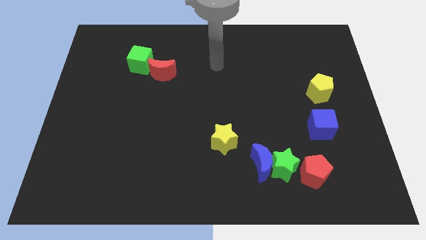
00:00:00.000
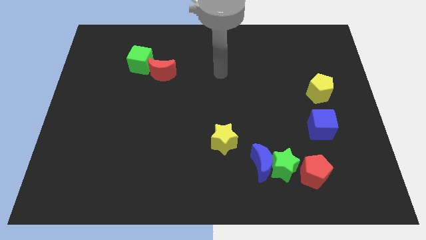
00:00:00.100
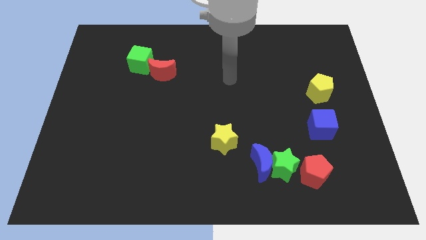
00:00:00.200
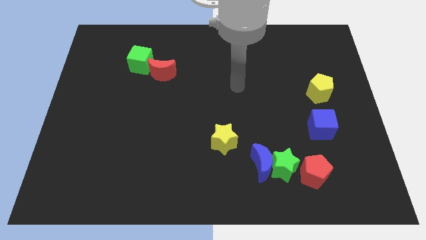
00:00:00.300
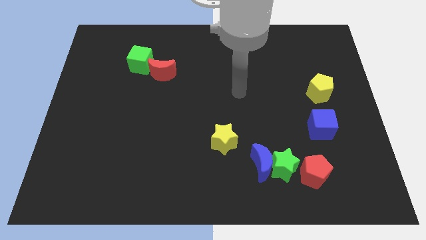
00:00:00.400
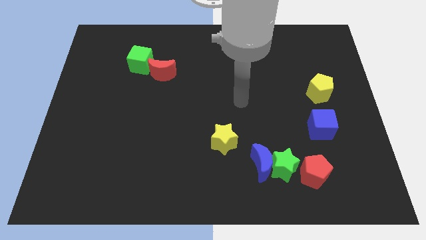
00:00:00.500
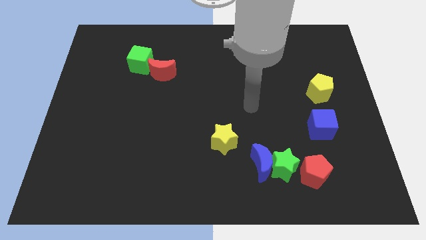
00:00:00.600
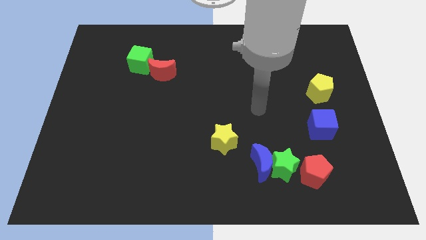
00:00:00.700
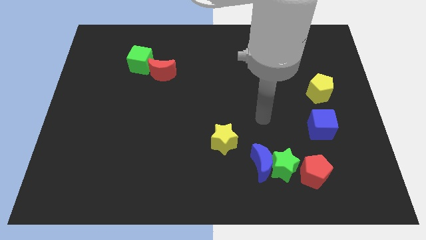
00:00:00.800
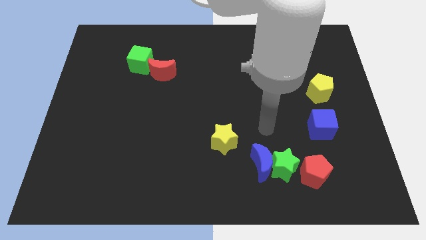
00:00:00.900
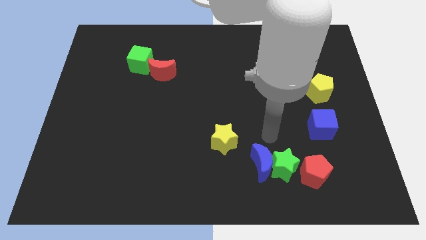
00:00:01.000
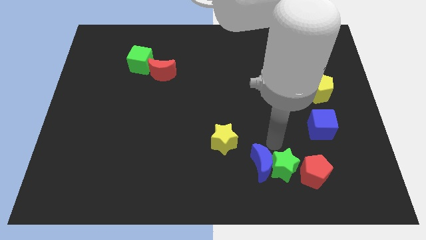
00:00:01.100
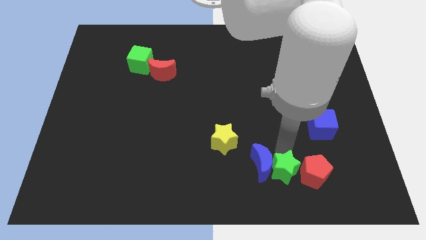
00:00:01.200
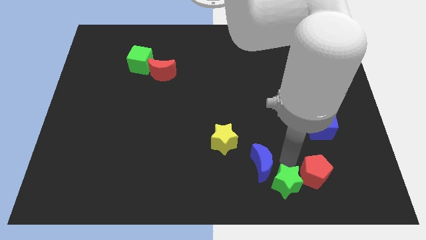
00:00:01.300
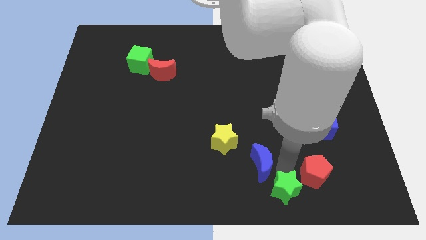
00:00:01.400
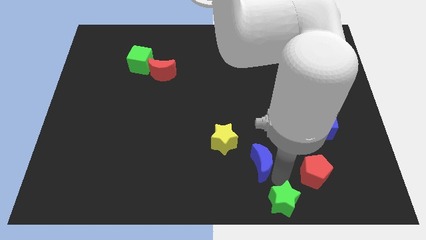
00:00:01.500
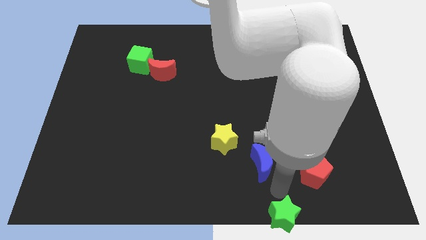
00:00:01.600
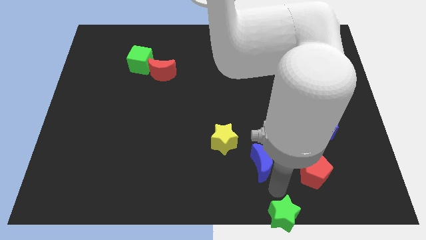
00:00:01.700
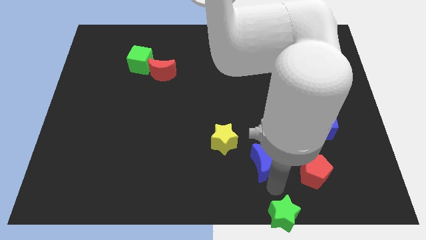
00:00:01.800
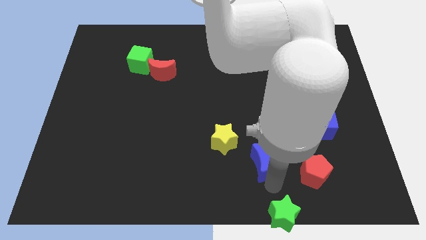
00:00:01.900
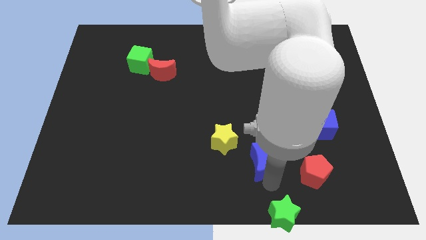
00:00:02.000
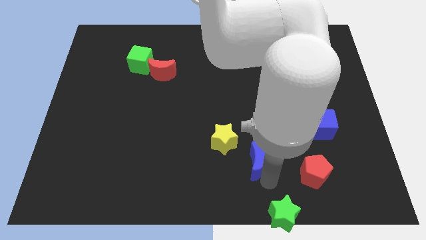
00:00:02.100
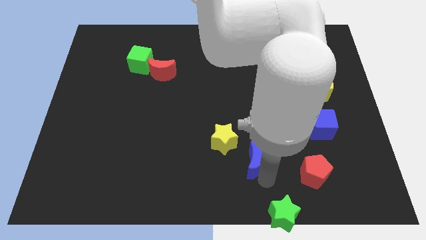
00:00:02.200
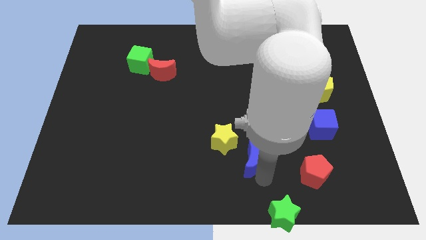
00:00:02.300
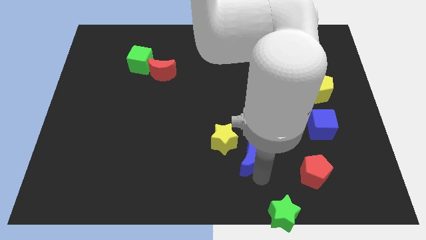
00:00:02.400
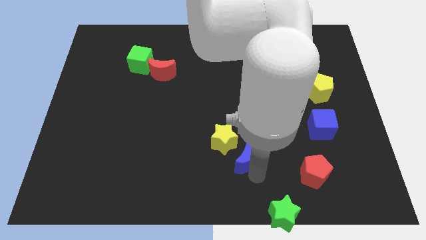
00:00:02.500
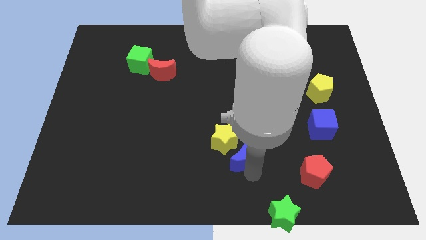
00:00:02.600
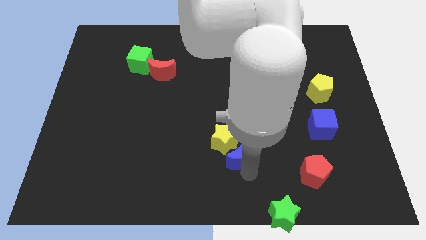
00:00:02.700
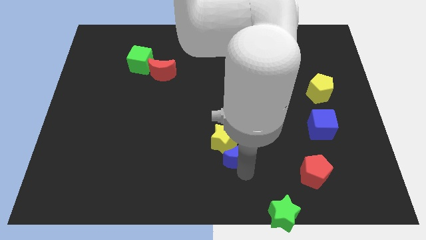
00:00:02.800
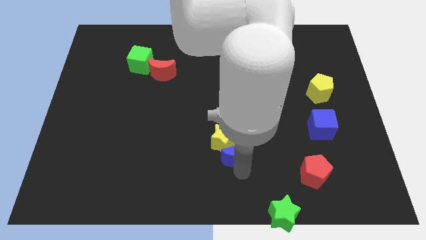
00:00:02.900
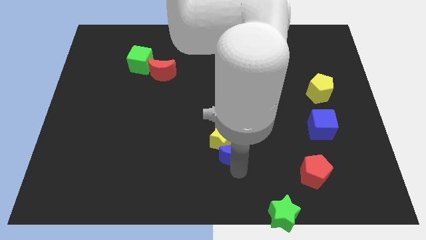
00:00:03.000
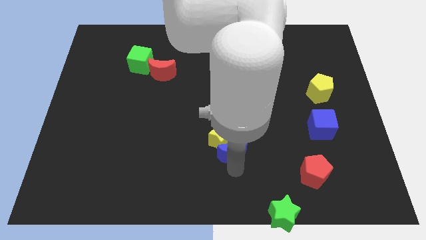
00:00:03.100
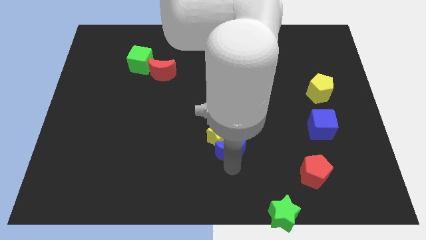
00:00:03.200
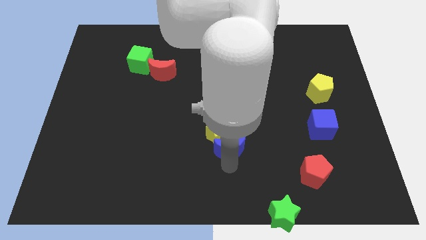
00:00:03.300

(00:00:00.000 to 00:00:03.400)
push the blue moon upwards and left a bit

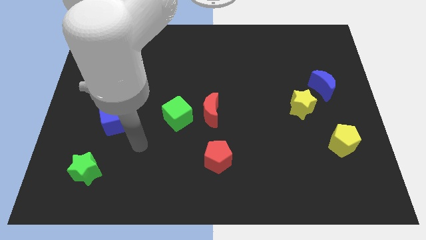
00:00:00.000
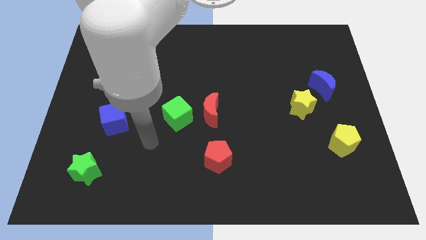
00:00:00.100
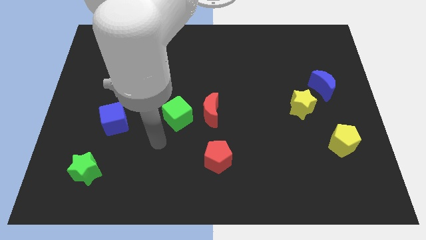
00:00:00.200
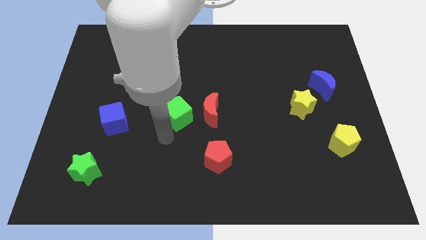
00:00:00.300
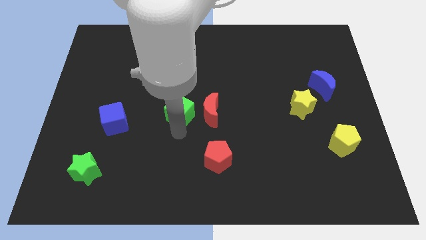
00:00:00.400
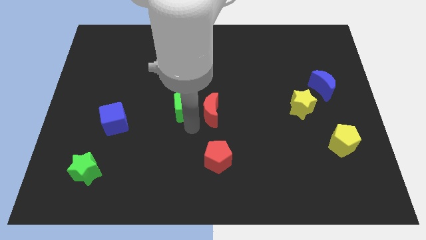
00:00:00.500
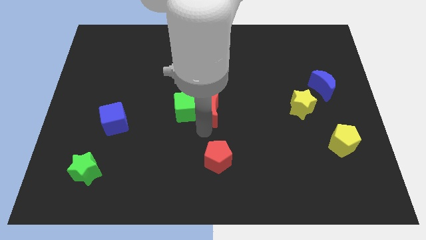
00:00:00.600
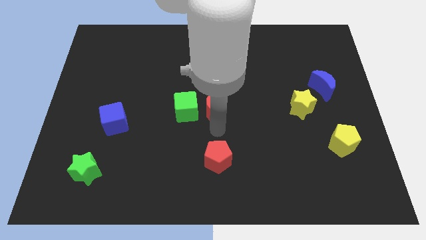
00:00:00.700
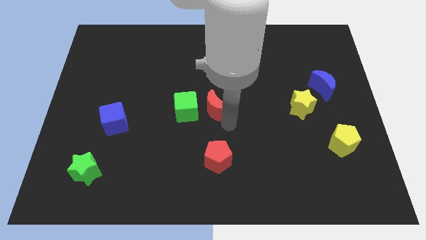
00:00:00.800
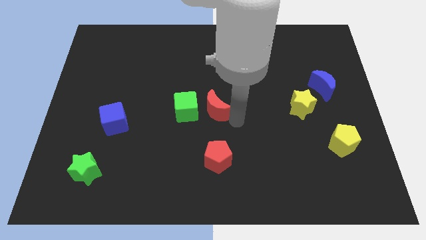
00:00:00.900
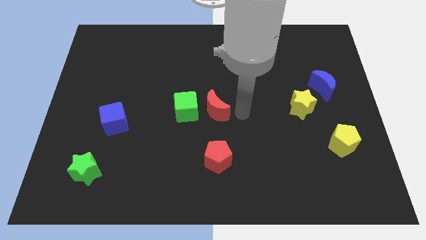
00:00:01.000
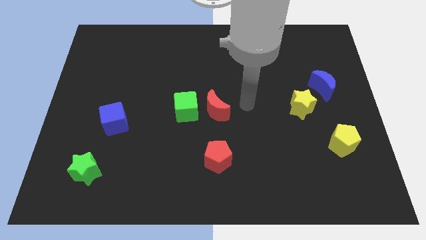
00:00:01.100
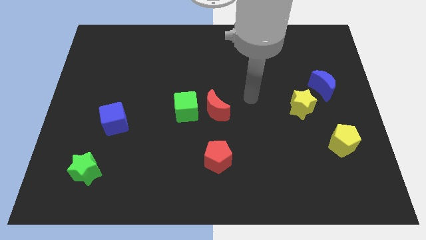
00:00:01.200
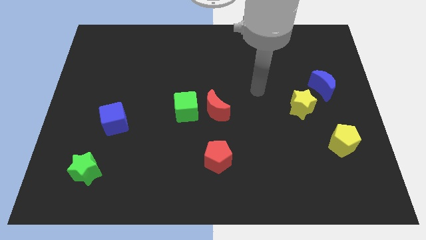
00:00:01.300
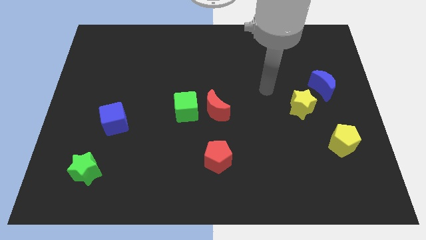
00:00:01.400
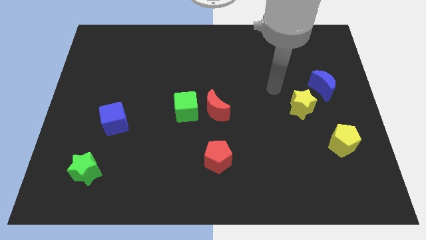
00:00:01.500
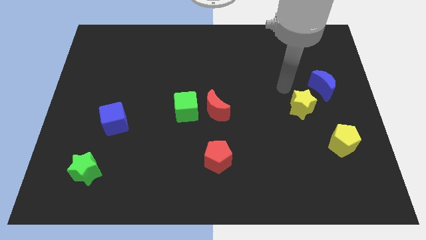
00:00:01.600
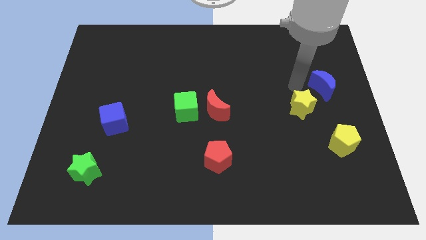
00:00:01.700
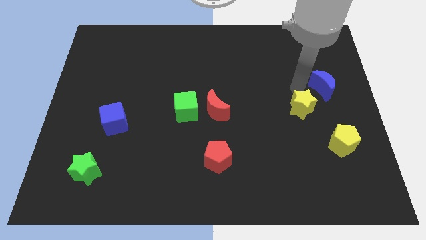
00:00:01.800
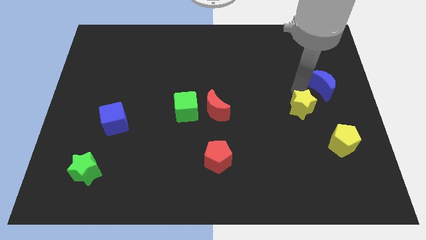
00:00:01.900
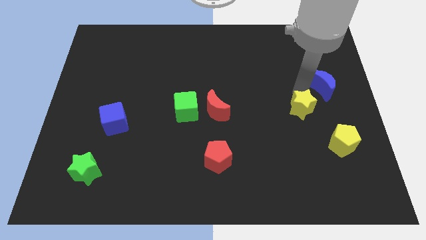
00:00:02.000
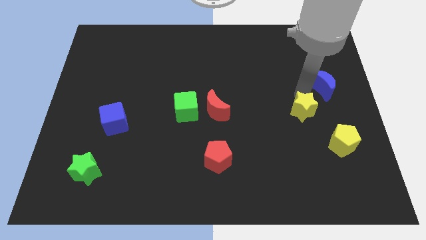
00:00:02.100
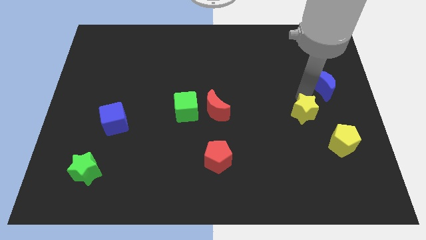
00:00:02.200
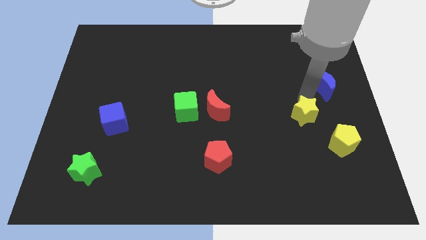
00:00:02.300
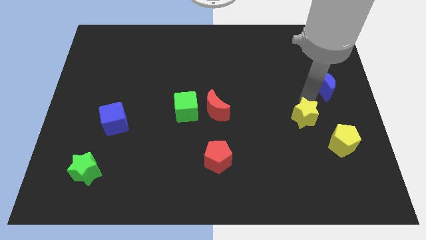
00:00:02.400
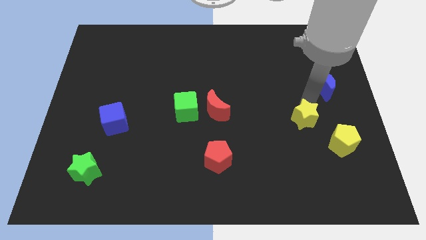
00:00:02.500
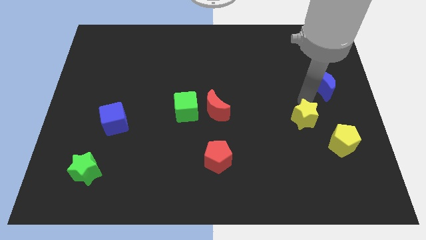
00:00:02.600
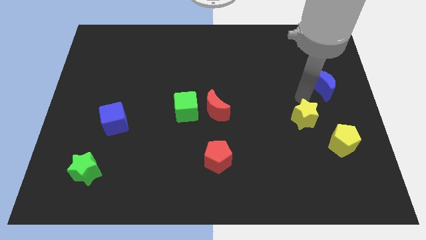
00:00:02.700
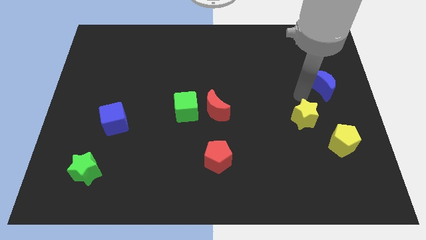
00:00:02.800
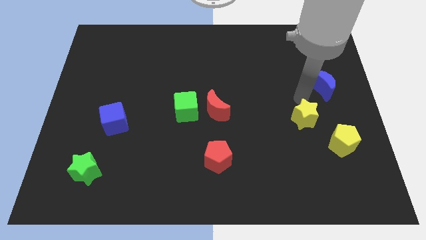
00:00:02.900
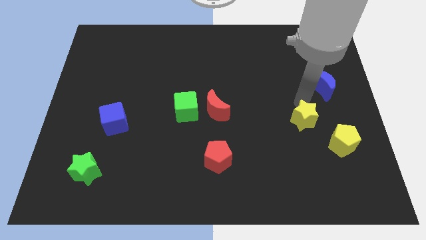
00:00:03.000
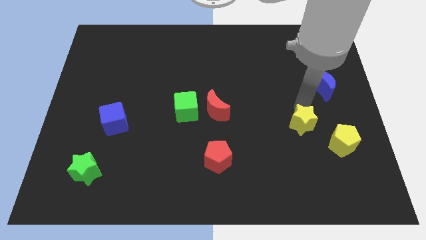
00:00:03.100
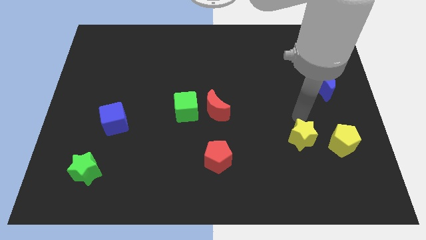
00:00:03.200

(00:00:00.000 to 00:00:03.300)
slide the yellow star somewhat down

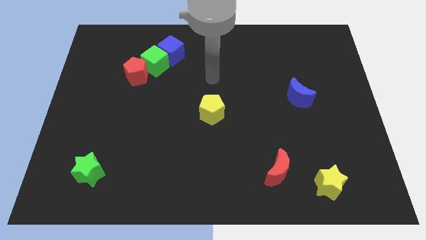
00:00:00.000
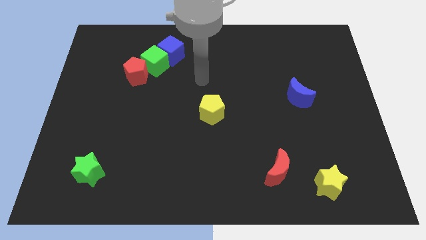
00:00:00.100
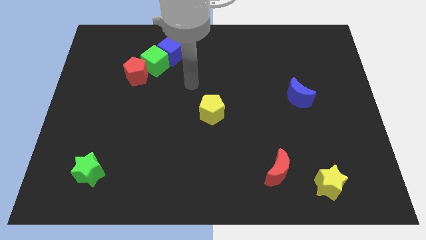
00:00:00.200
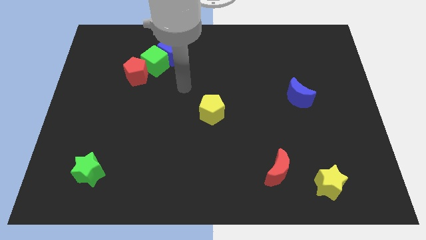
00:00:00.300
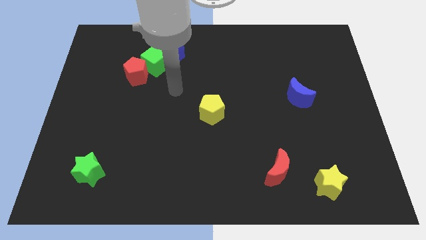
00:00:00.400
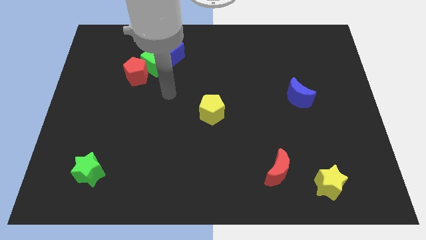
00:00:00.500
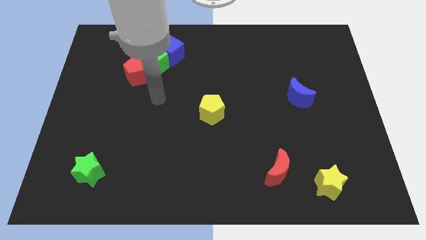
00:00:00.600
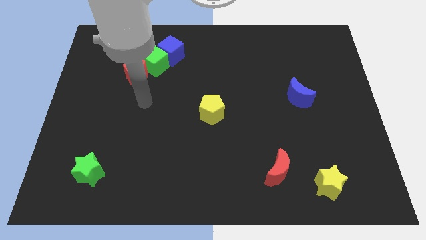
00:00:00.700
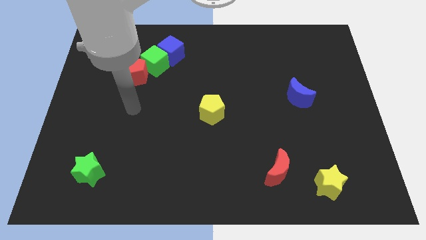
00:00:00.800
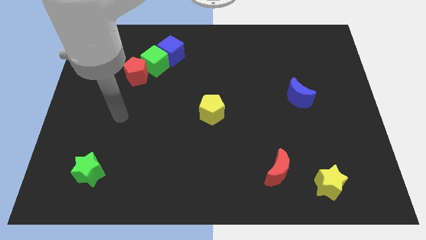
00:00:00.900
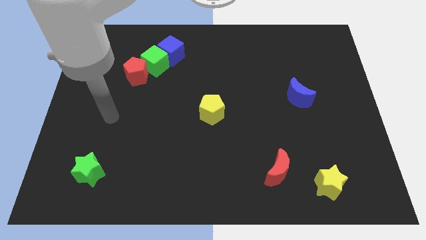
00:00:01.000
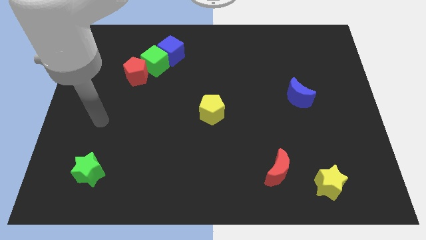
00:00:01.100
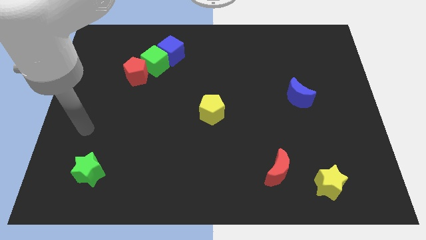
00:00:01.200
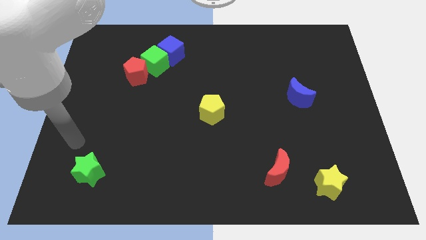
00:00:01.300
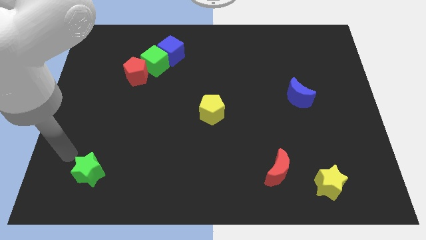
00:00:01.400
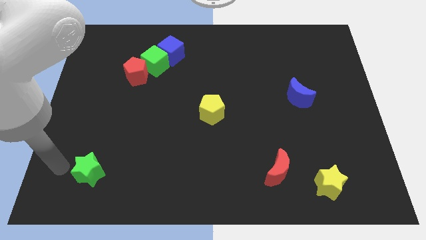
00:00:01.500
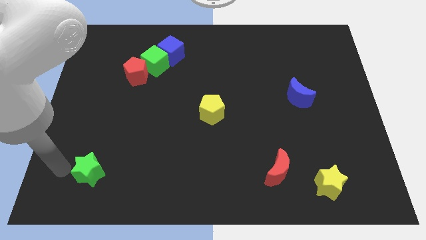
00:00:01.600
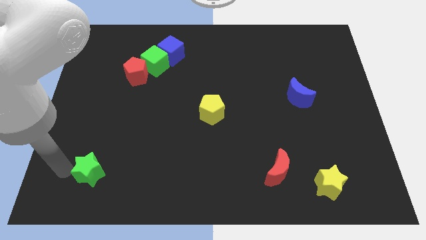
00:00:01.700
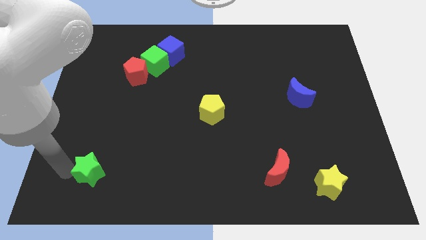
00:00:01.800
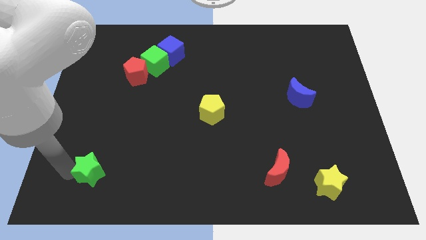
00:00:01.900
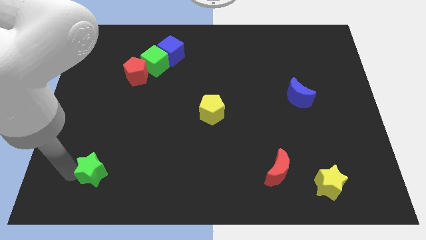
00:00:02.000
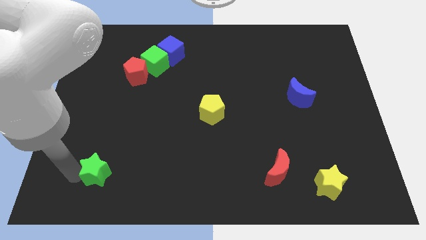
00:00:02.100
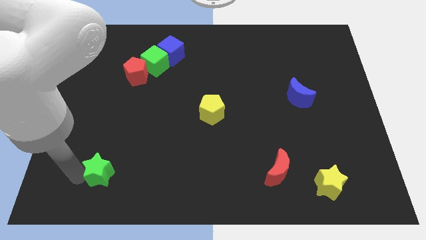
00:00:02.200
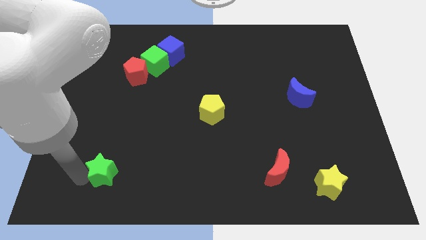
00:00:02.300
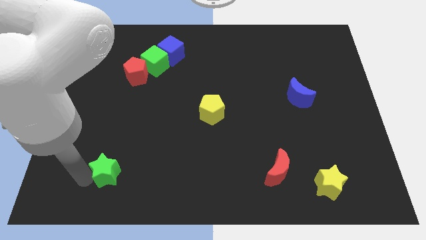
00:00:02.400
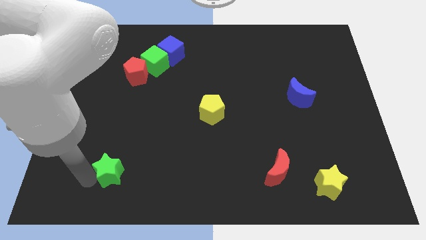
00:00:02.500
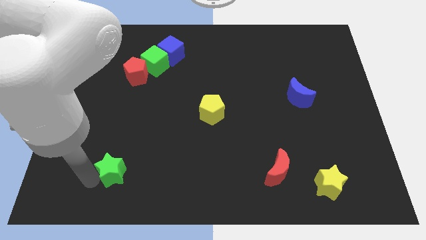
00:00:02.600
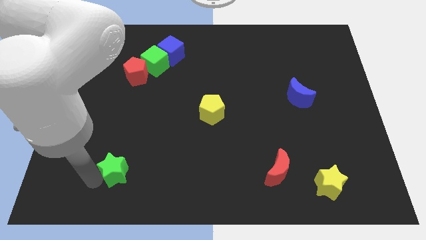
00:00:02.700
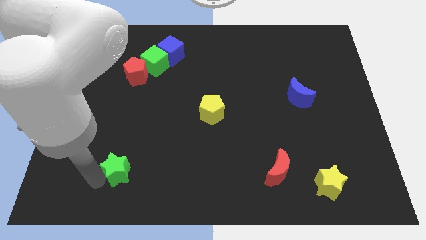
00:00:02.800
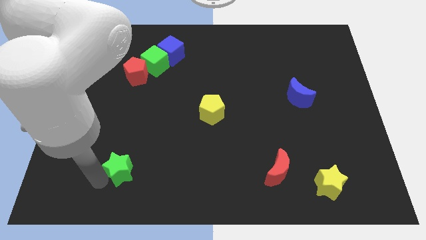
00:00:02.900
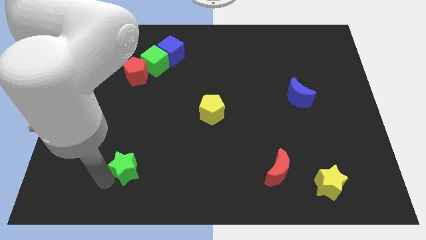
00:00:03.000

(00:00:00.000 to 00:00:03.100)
slightly move the green star right
